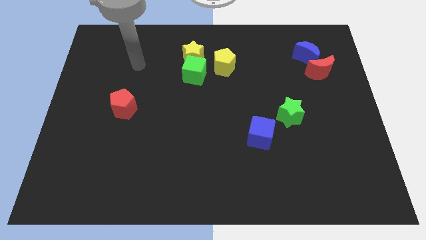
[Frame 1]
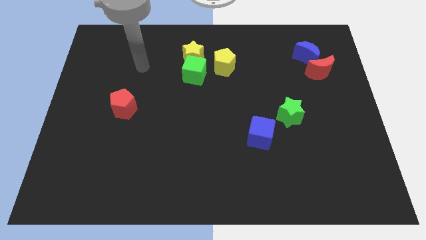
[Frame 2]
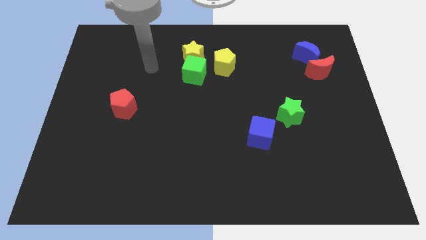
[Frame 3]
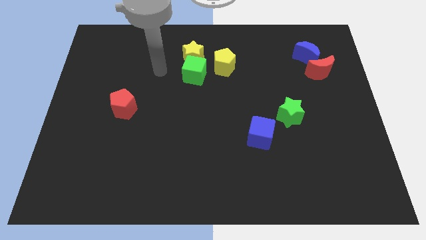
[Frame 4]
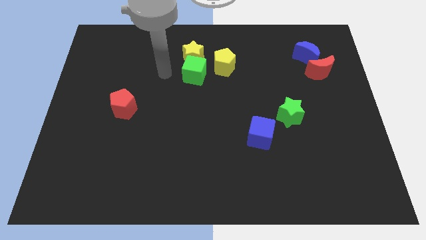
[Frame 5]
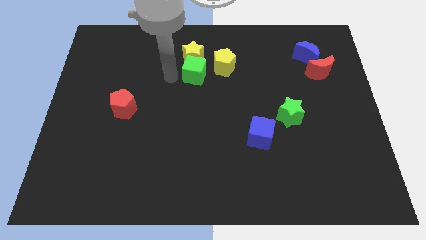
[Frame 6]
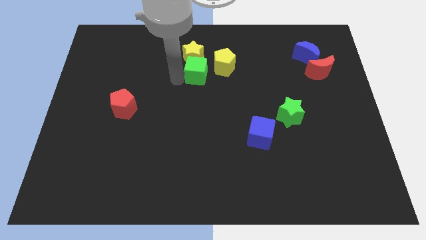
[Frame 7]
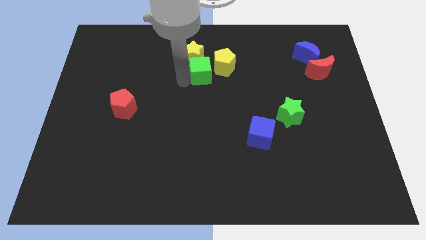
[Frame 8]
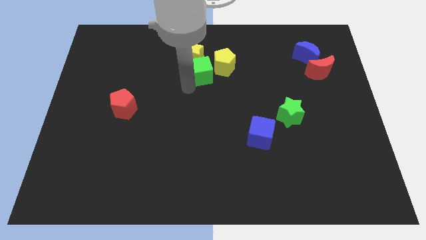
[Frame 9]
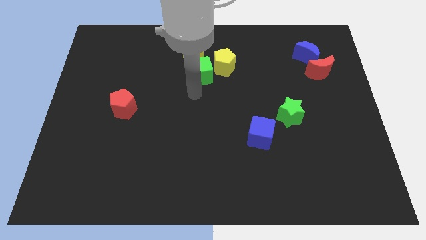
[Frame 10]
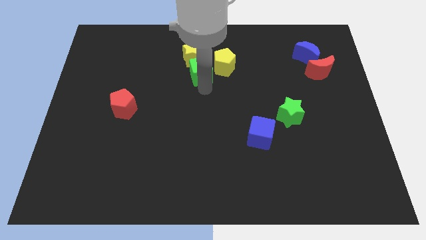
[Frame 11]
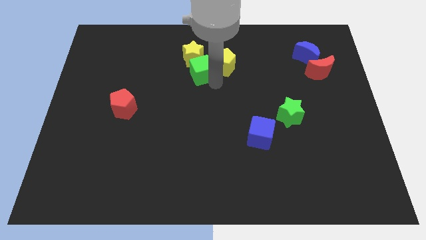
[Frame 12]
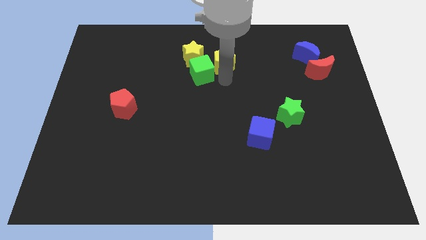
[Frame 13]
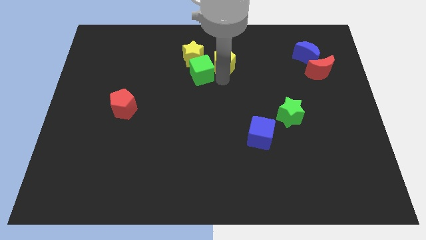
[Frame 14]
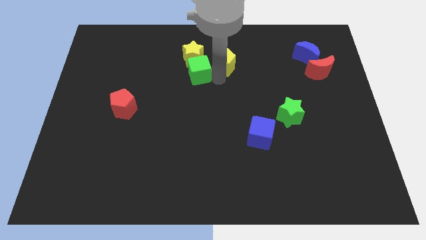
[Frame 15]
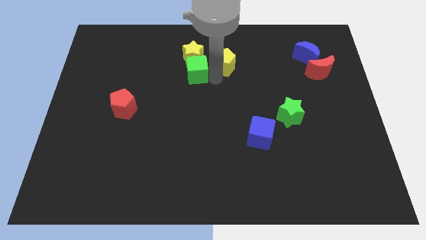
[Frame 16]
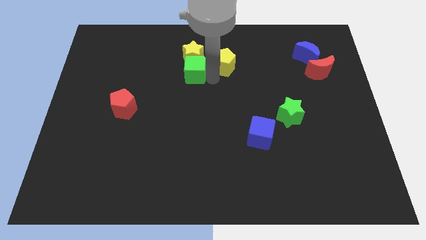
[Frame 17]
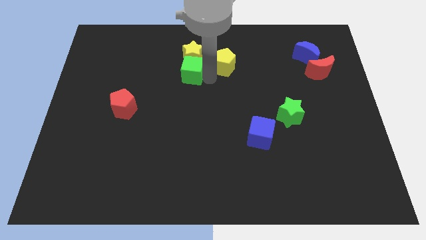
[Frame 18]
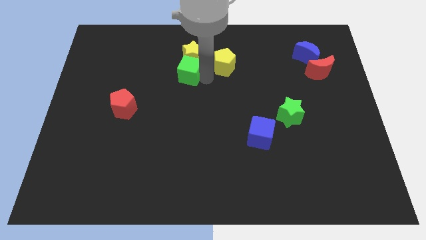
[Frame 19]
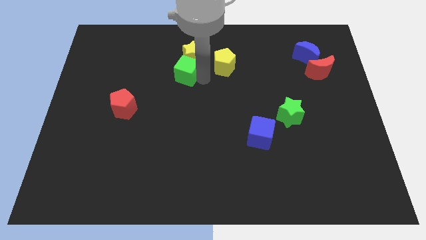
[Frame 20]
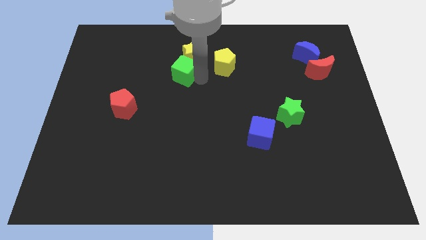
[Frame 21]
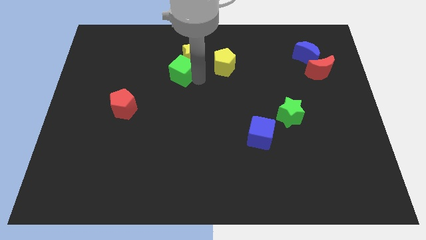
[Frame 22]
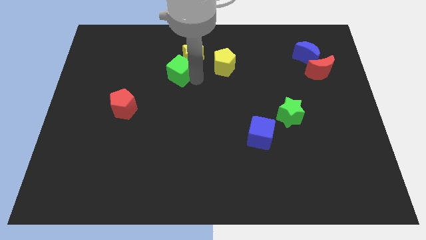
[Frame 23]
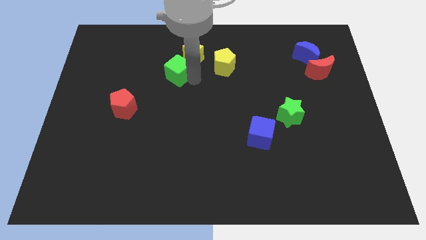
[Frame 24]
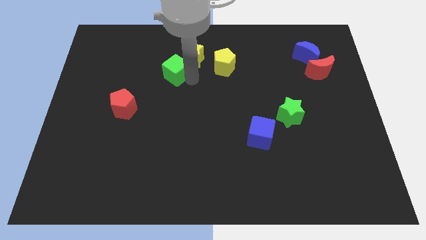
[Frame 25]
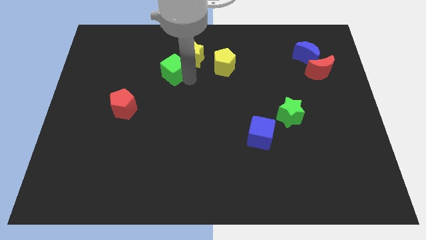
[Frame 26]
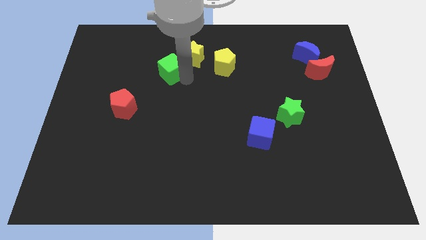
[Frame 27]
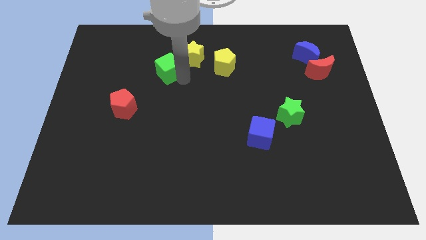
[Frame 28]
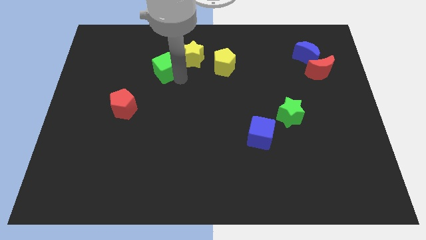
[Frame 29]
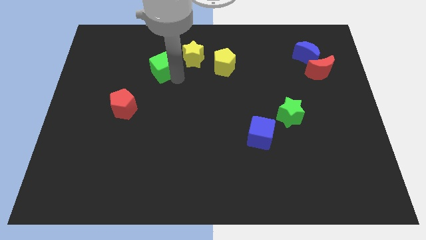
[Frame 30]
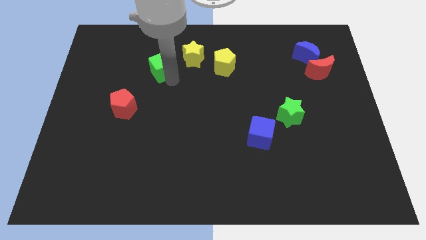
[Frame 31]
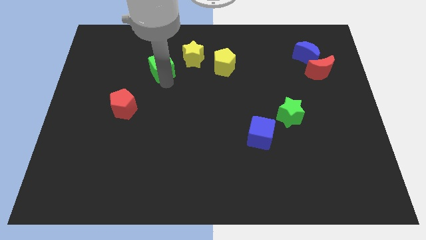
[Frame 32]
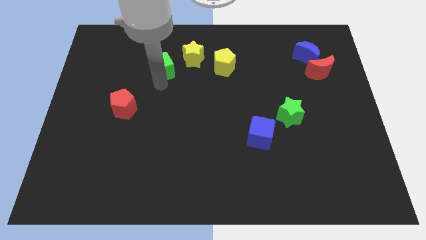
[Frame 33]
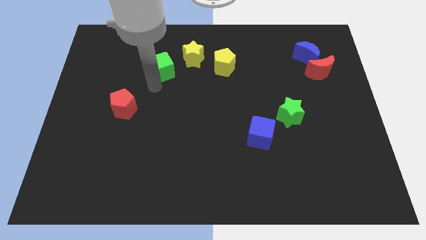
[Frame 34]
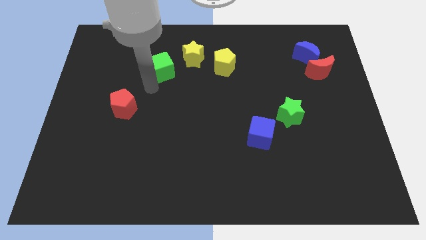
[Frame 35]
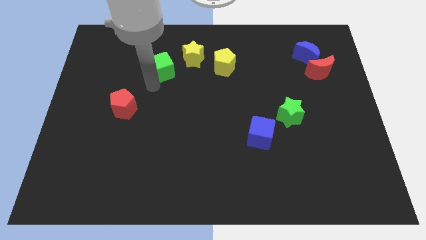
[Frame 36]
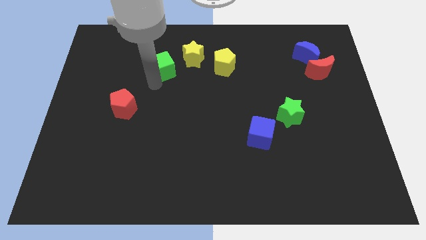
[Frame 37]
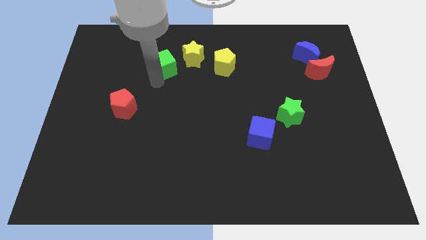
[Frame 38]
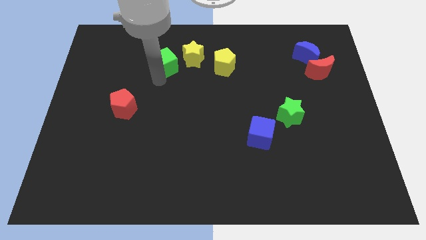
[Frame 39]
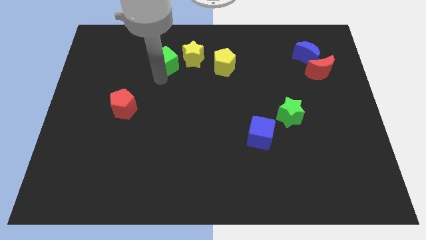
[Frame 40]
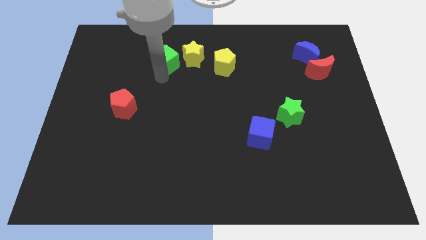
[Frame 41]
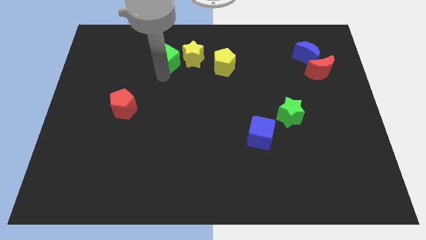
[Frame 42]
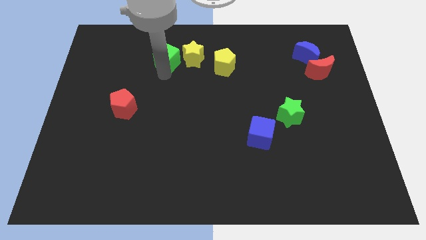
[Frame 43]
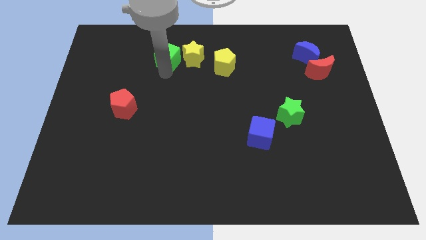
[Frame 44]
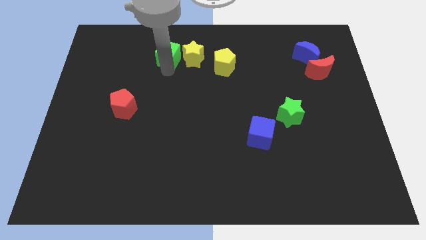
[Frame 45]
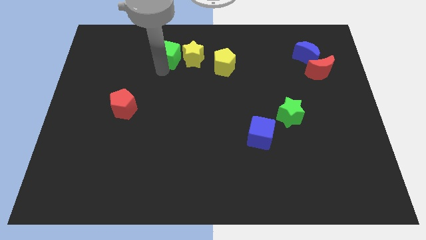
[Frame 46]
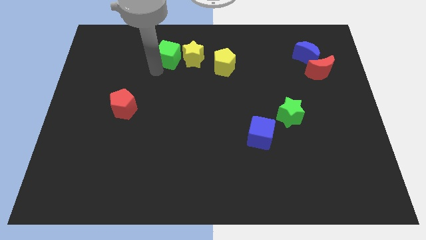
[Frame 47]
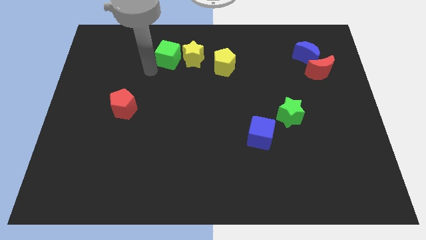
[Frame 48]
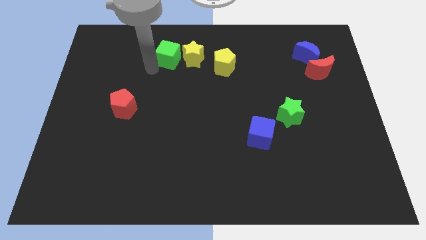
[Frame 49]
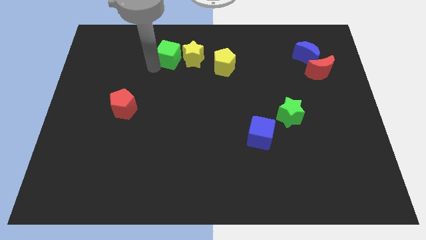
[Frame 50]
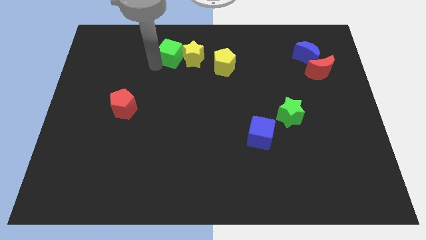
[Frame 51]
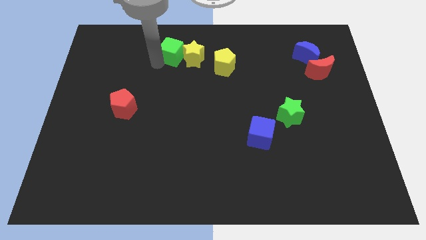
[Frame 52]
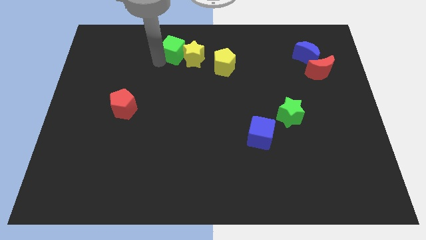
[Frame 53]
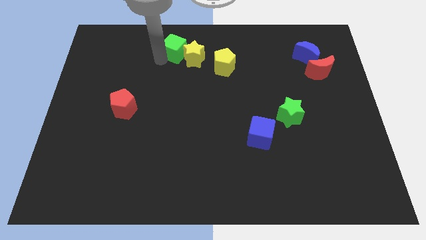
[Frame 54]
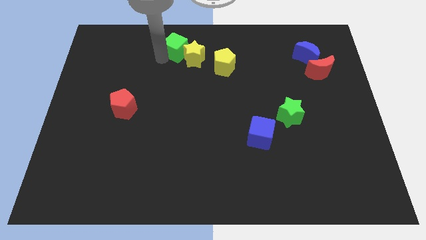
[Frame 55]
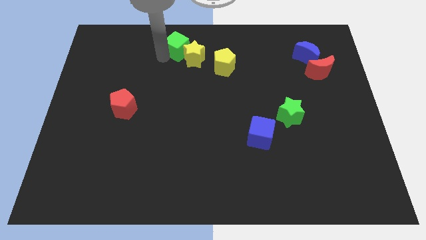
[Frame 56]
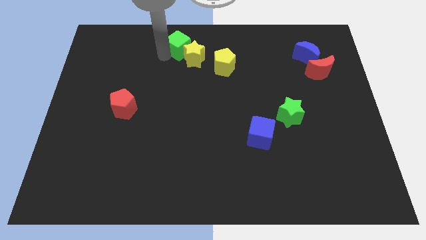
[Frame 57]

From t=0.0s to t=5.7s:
move the green cube to the towards your base

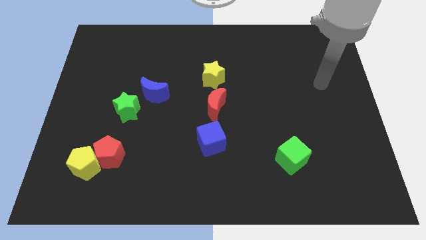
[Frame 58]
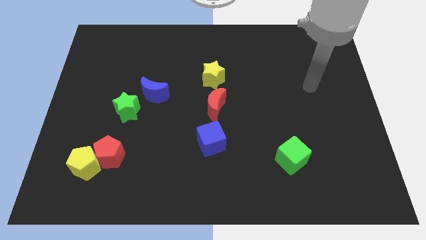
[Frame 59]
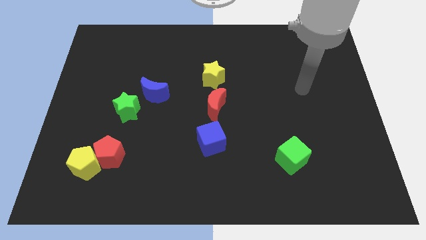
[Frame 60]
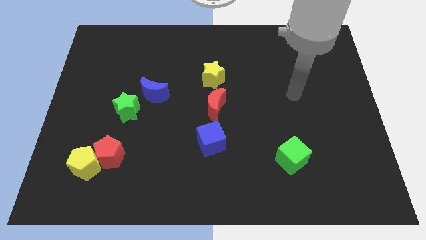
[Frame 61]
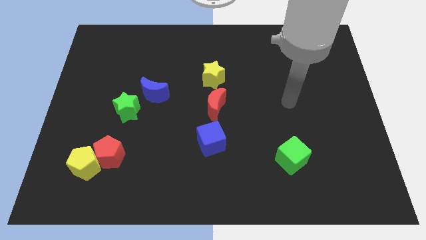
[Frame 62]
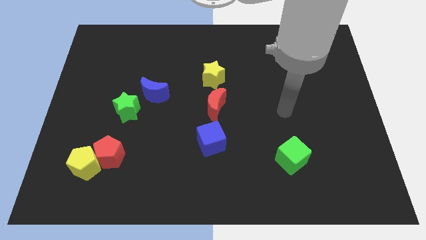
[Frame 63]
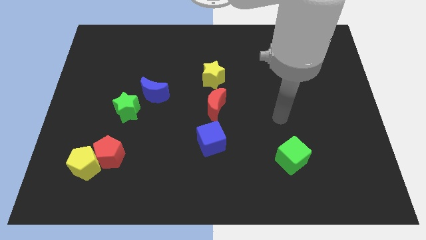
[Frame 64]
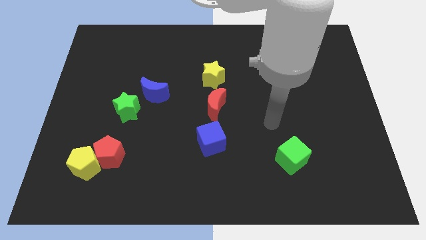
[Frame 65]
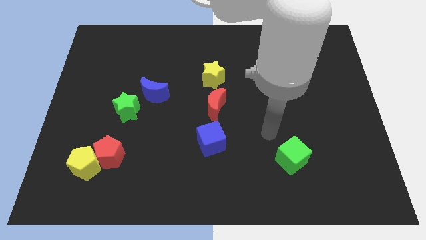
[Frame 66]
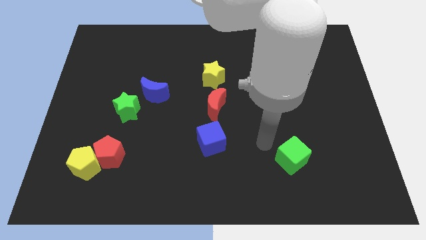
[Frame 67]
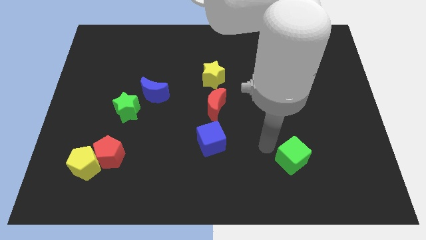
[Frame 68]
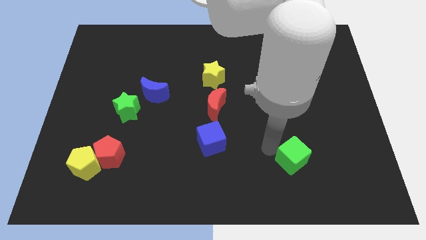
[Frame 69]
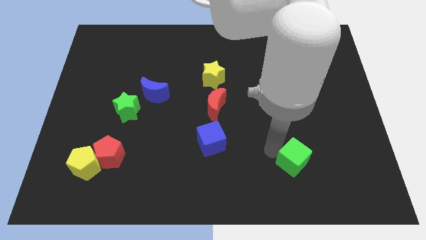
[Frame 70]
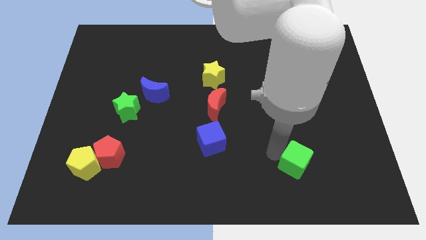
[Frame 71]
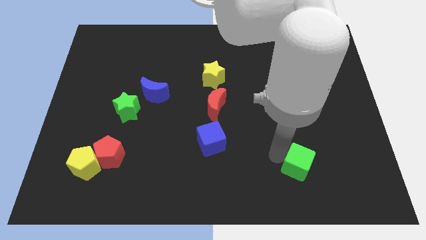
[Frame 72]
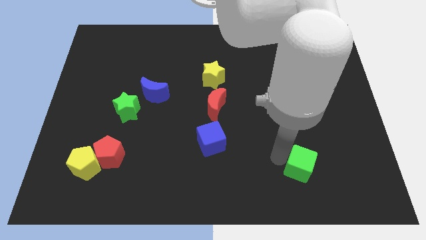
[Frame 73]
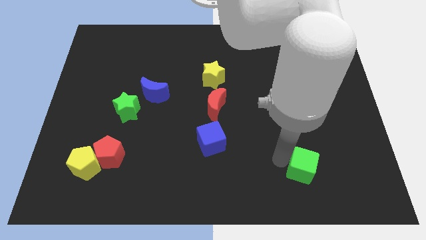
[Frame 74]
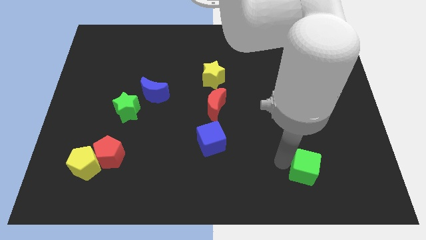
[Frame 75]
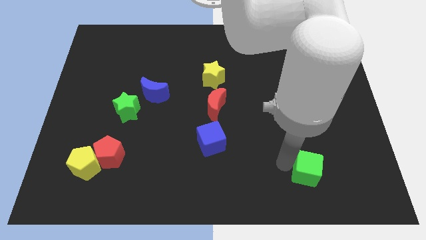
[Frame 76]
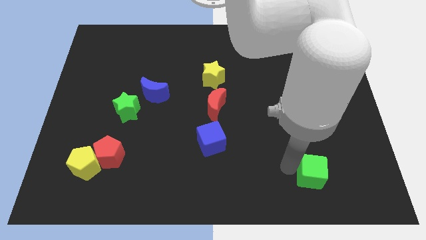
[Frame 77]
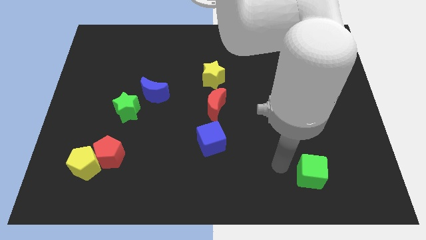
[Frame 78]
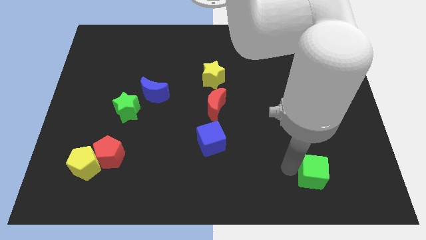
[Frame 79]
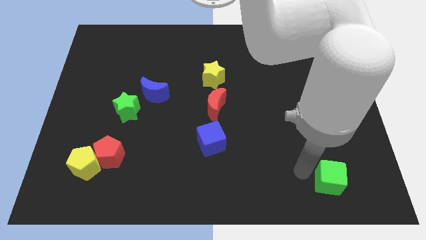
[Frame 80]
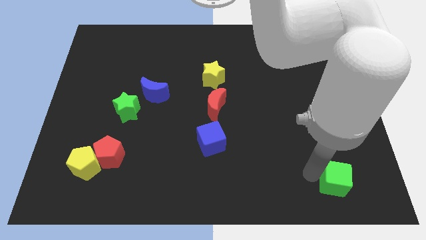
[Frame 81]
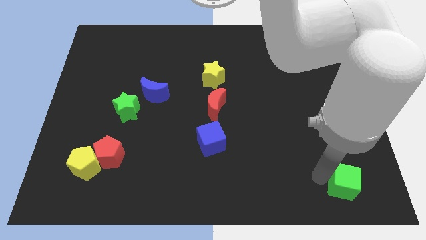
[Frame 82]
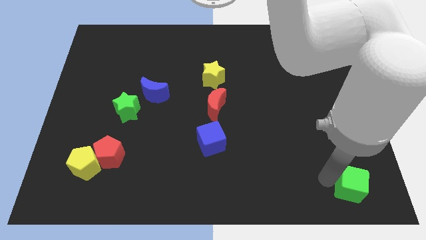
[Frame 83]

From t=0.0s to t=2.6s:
put the green cube to the lower right corner

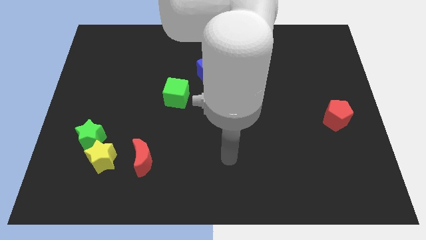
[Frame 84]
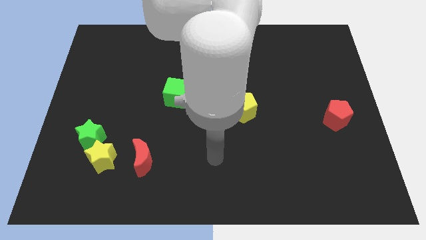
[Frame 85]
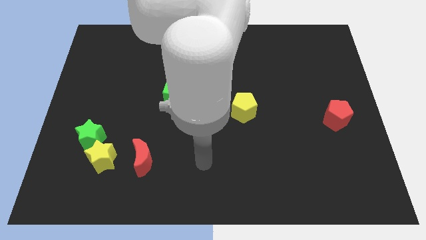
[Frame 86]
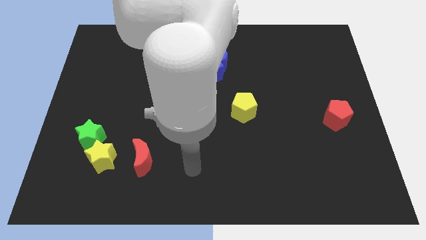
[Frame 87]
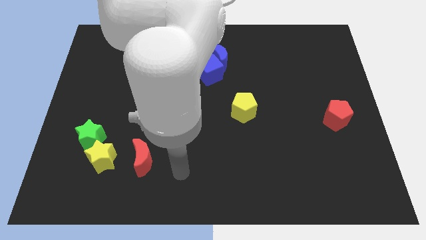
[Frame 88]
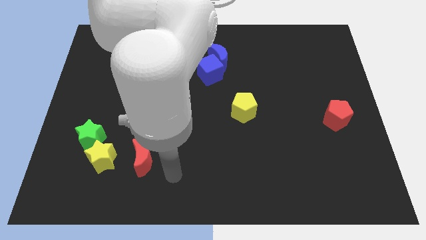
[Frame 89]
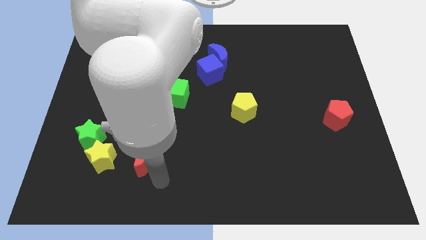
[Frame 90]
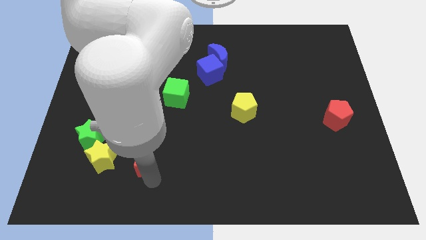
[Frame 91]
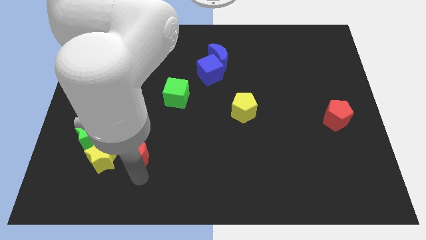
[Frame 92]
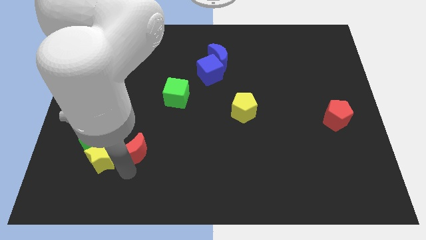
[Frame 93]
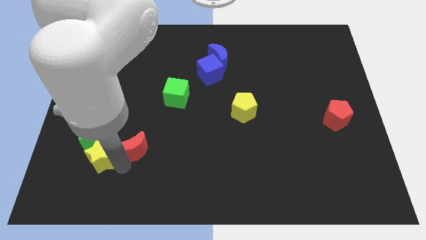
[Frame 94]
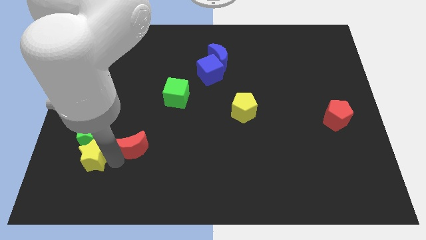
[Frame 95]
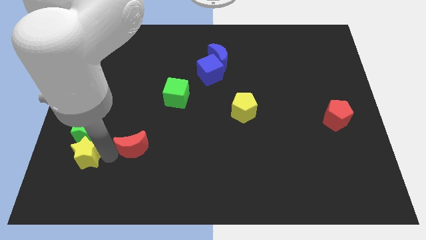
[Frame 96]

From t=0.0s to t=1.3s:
put the green star to the center left
